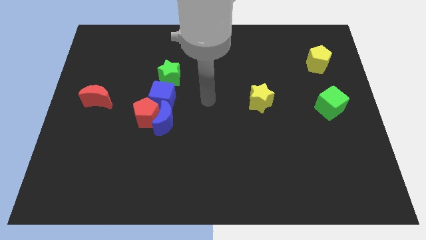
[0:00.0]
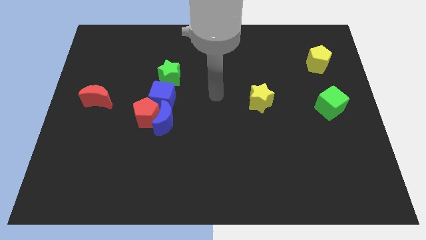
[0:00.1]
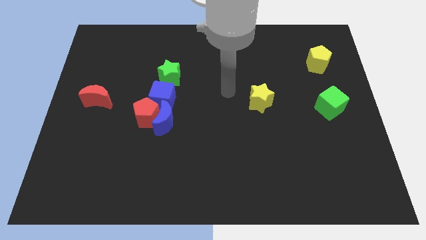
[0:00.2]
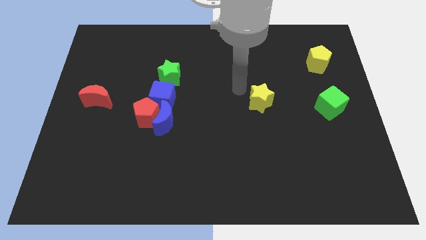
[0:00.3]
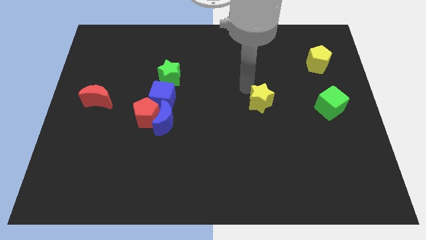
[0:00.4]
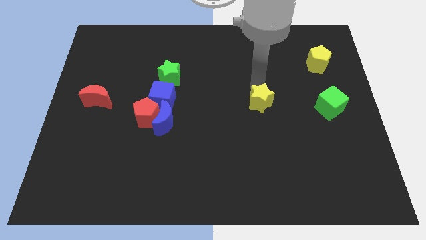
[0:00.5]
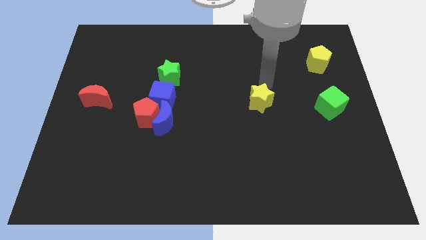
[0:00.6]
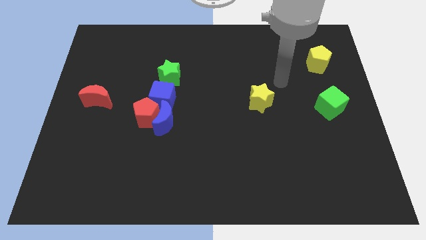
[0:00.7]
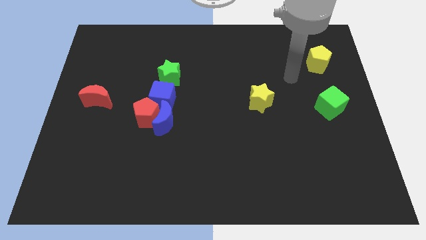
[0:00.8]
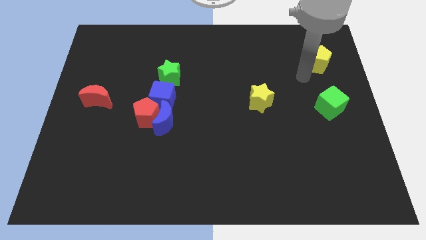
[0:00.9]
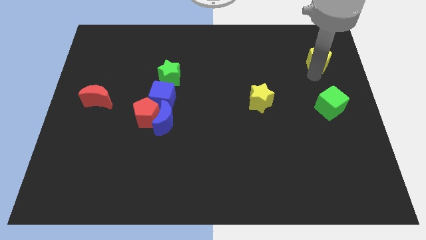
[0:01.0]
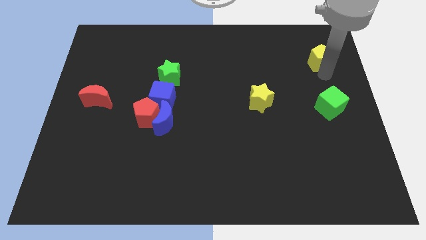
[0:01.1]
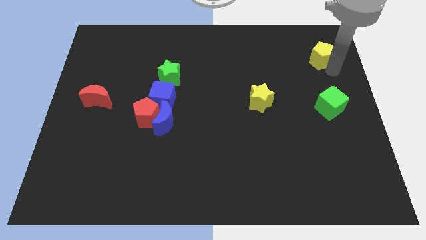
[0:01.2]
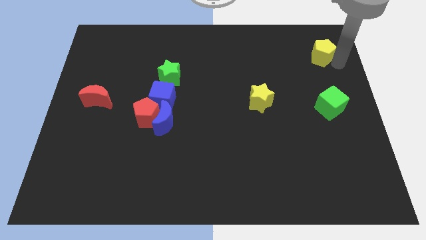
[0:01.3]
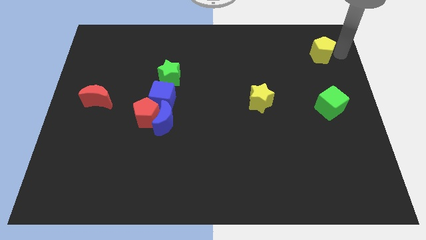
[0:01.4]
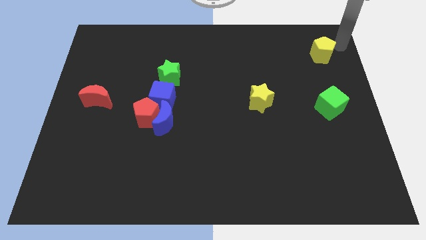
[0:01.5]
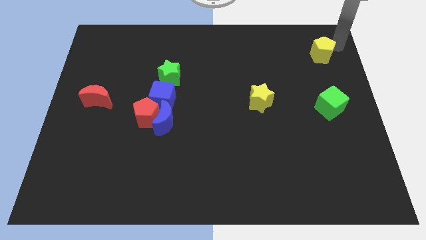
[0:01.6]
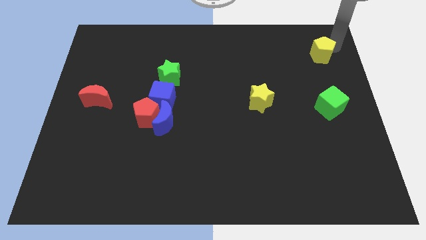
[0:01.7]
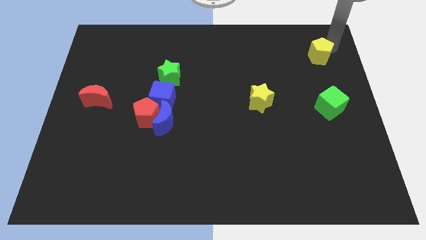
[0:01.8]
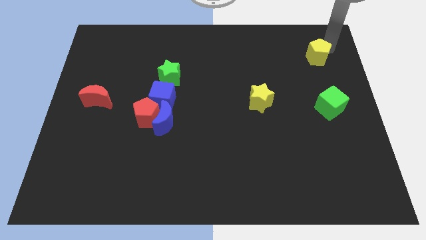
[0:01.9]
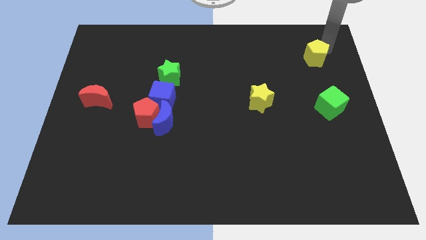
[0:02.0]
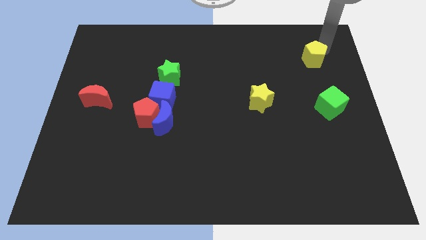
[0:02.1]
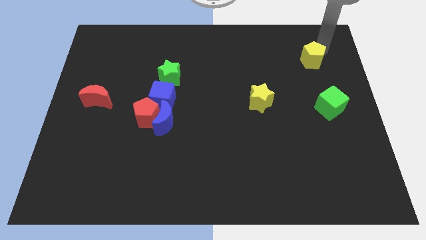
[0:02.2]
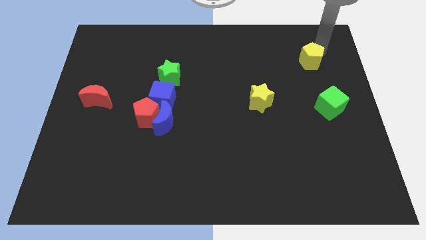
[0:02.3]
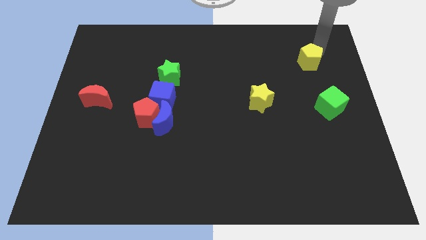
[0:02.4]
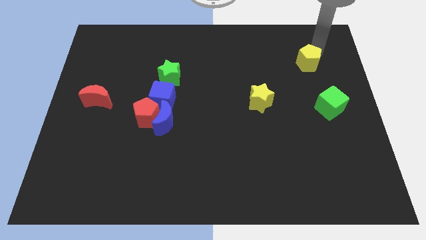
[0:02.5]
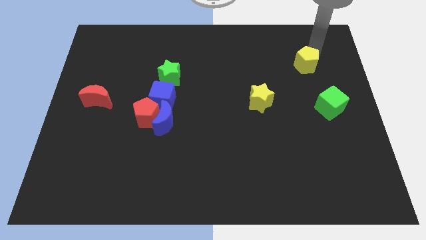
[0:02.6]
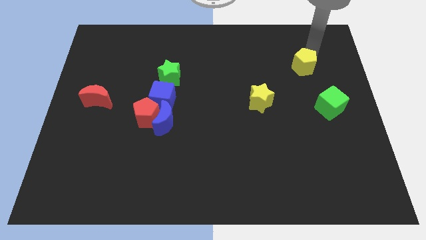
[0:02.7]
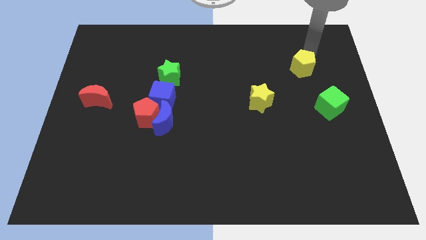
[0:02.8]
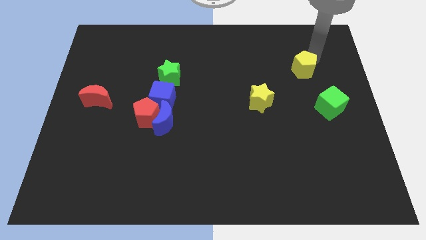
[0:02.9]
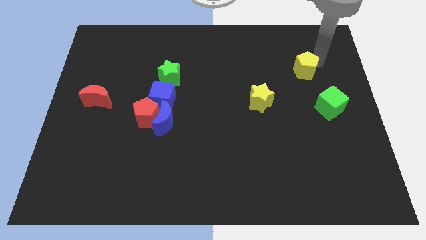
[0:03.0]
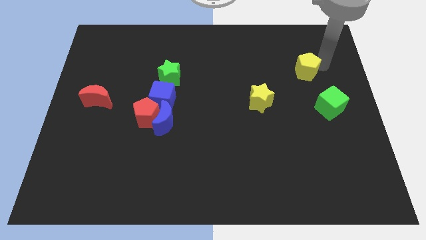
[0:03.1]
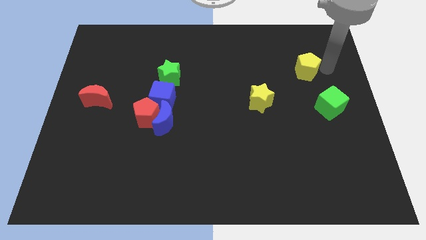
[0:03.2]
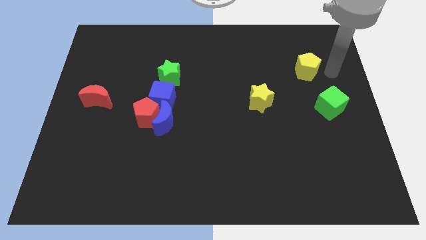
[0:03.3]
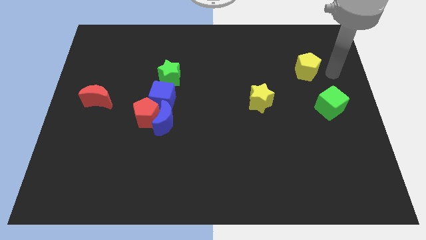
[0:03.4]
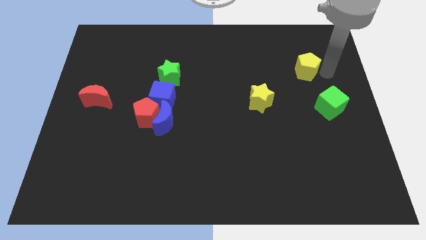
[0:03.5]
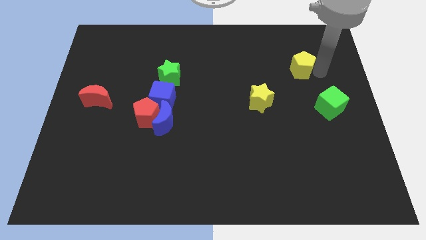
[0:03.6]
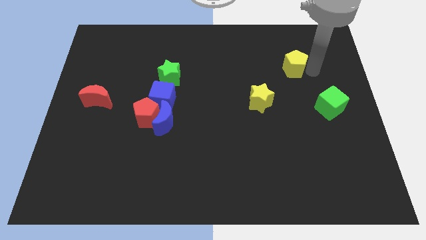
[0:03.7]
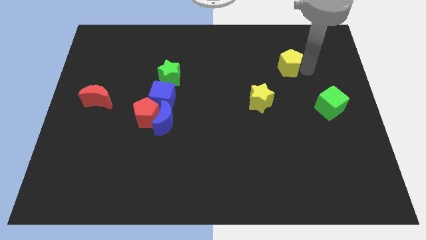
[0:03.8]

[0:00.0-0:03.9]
move the yellow pentagon a little bit left

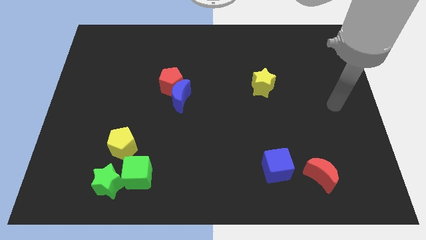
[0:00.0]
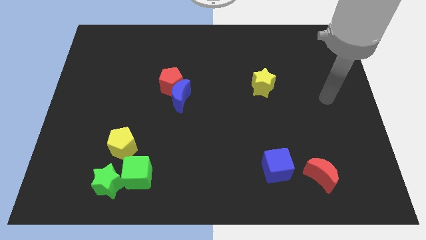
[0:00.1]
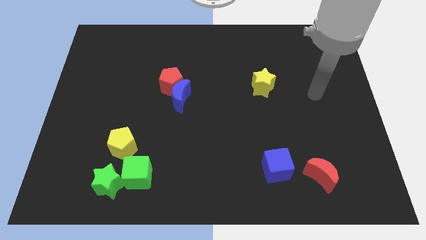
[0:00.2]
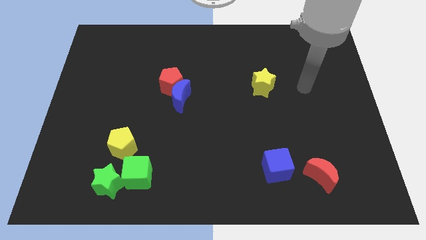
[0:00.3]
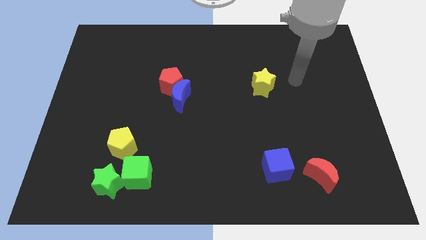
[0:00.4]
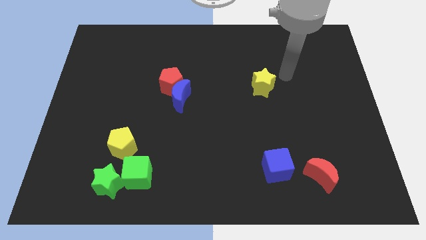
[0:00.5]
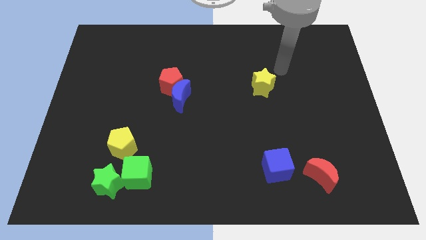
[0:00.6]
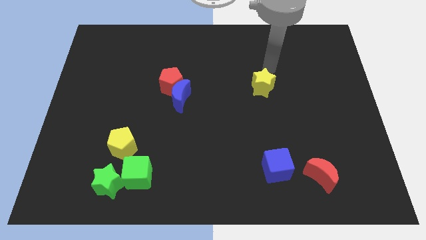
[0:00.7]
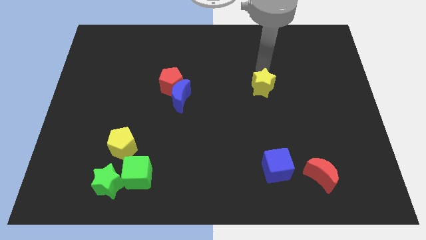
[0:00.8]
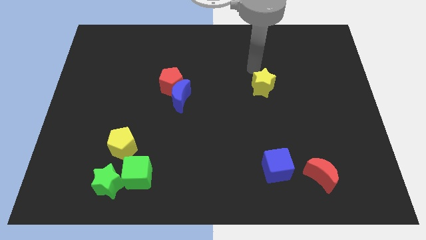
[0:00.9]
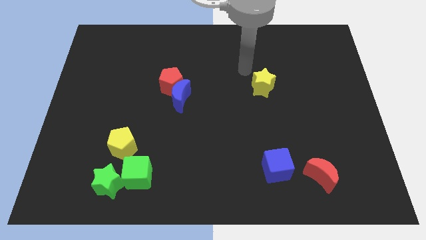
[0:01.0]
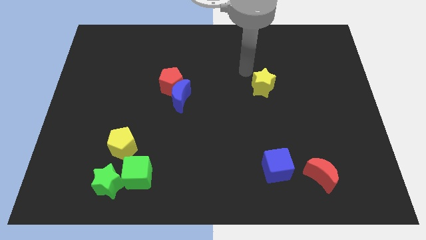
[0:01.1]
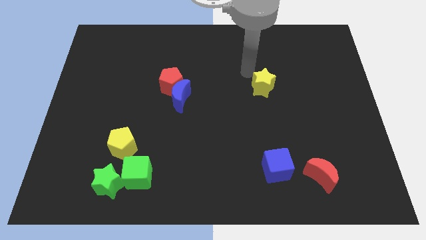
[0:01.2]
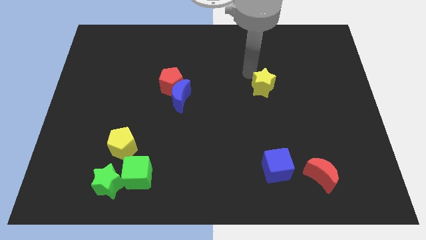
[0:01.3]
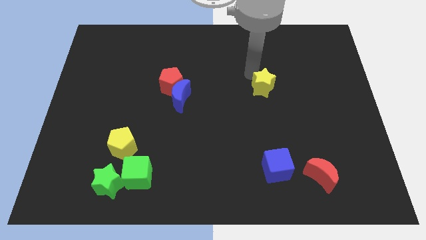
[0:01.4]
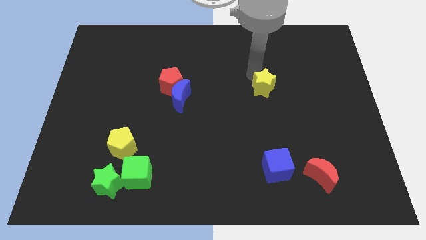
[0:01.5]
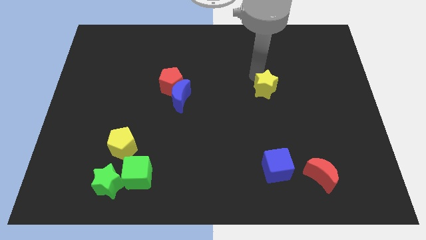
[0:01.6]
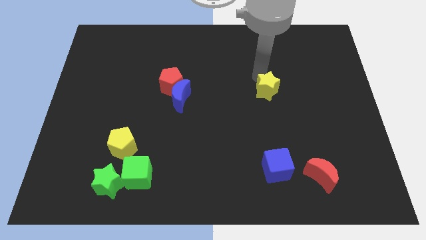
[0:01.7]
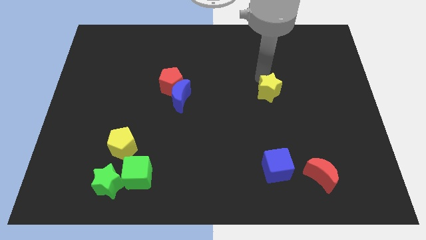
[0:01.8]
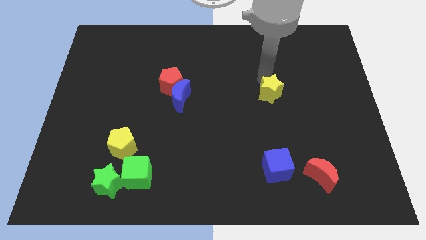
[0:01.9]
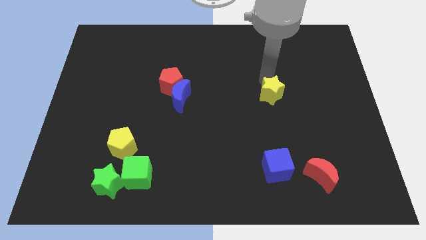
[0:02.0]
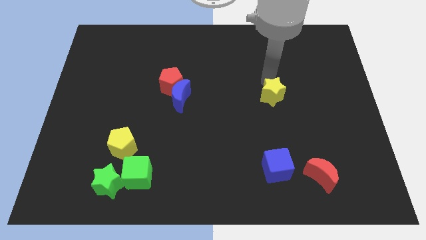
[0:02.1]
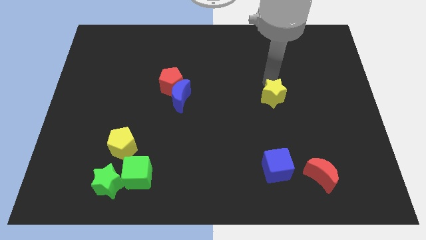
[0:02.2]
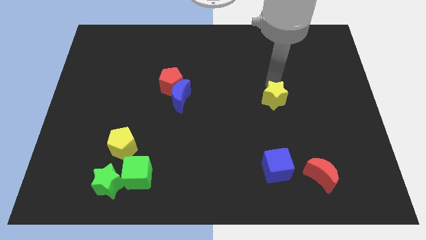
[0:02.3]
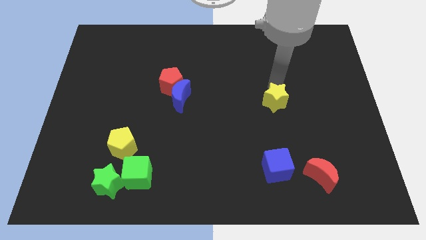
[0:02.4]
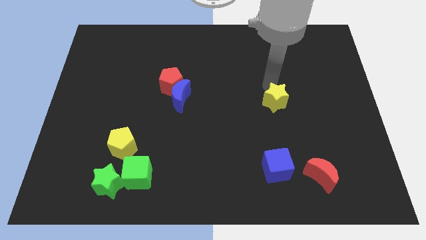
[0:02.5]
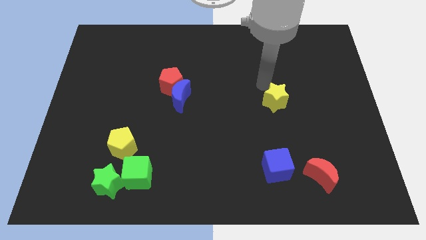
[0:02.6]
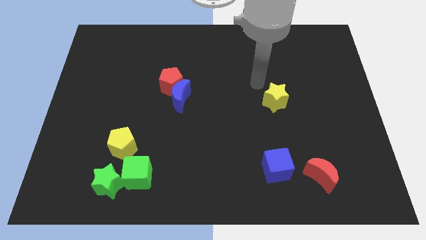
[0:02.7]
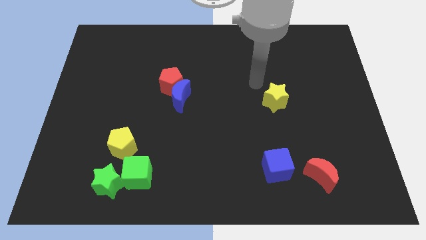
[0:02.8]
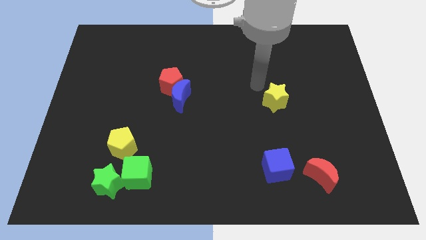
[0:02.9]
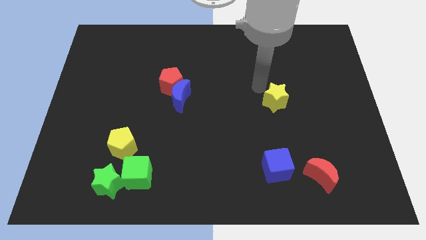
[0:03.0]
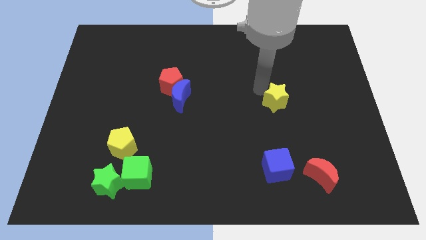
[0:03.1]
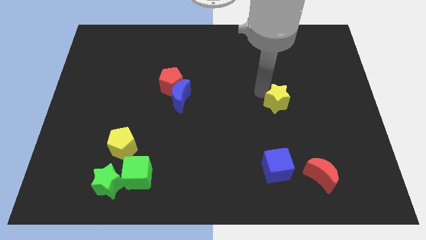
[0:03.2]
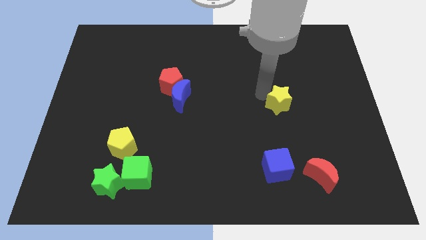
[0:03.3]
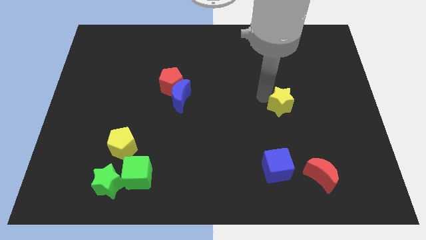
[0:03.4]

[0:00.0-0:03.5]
push the yellow star diagonally downwards and to the right a little

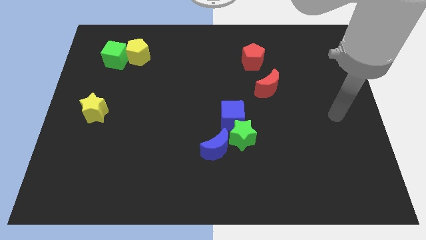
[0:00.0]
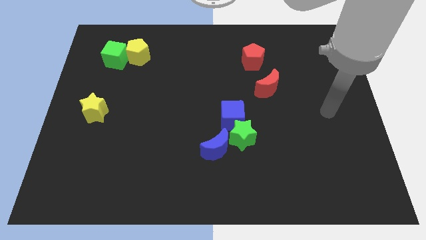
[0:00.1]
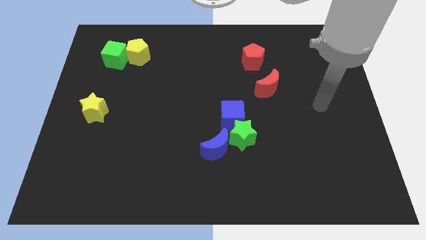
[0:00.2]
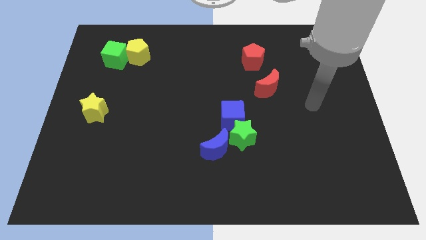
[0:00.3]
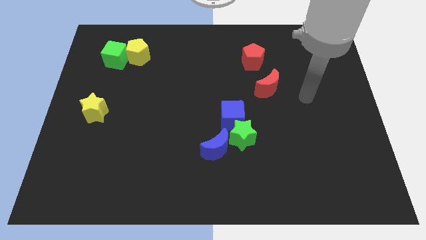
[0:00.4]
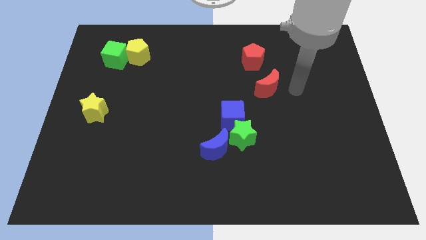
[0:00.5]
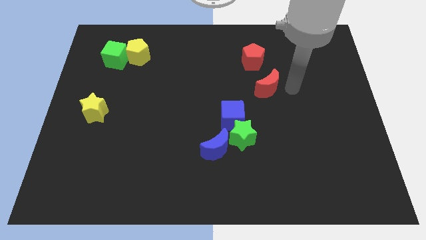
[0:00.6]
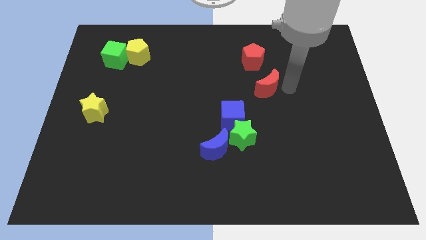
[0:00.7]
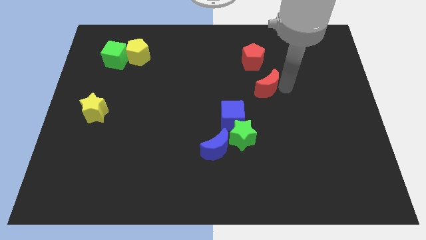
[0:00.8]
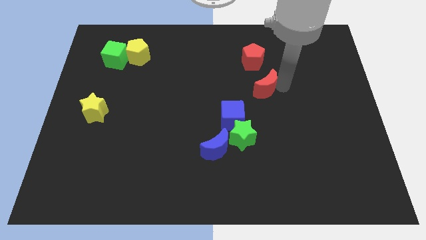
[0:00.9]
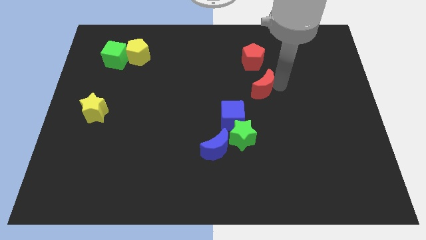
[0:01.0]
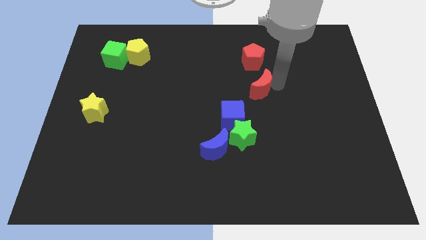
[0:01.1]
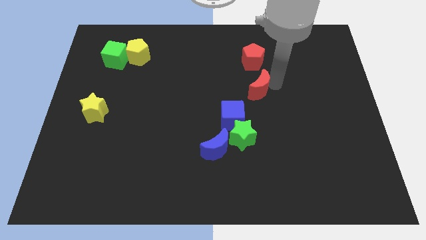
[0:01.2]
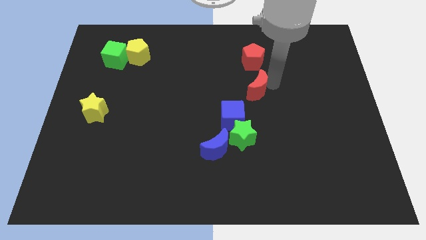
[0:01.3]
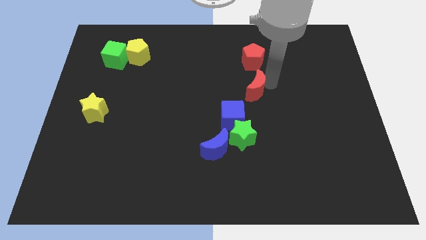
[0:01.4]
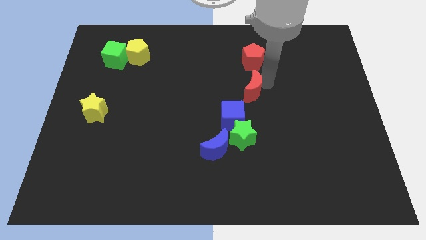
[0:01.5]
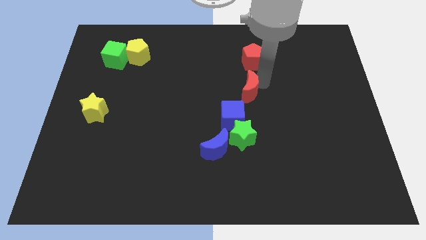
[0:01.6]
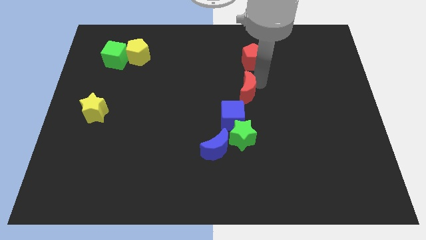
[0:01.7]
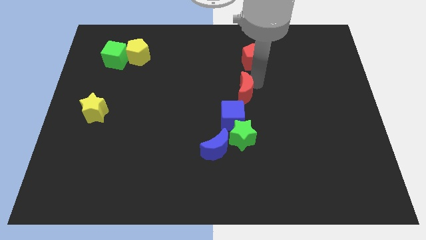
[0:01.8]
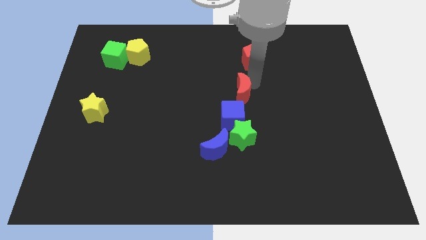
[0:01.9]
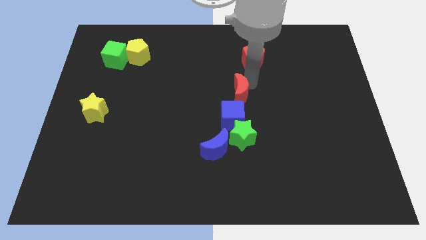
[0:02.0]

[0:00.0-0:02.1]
push the red moon a little to the left
